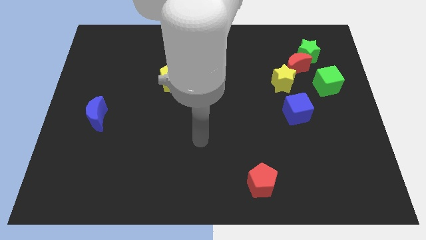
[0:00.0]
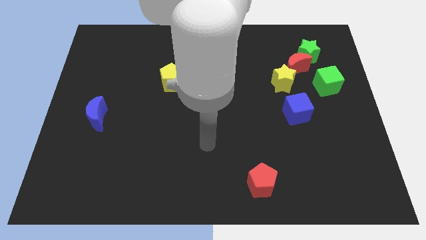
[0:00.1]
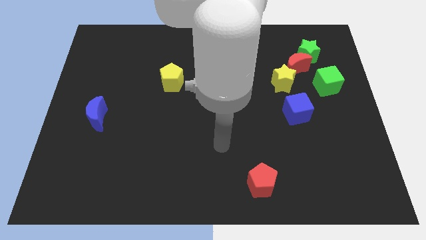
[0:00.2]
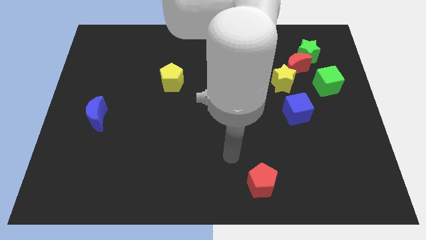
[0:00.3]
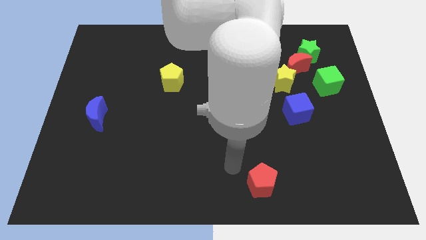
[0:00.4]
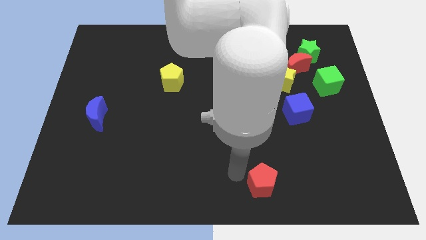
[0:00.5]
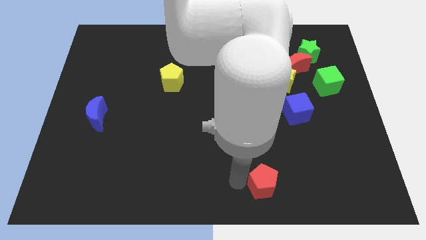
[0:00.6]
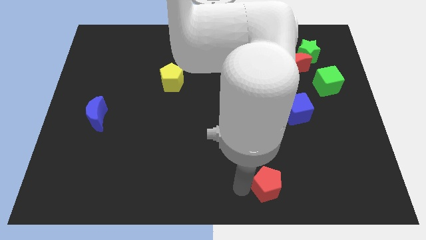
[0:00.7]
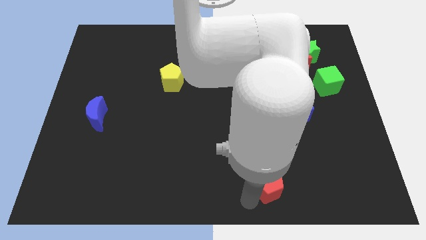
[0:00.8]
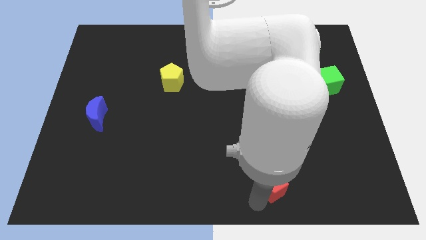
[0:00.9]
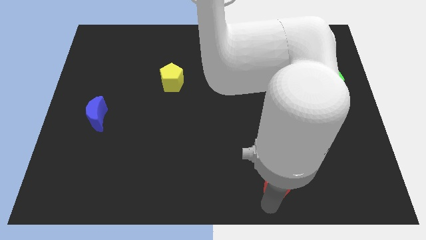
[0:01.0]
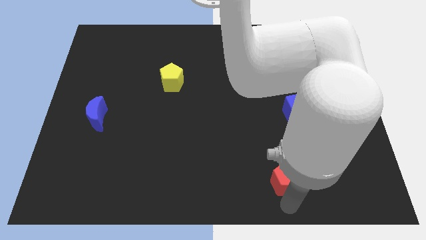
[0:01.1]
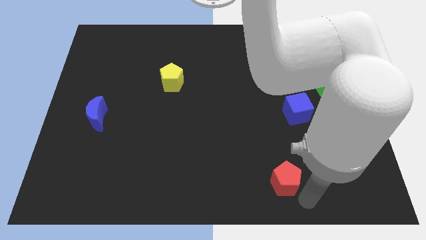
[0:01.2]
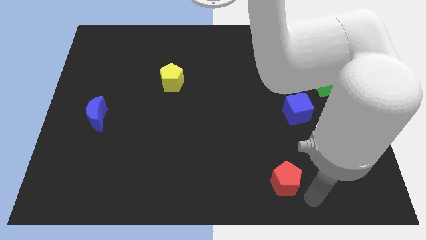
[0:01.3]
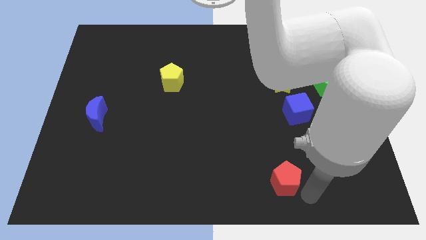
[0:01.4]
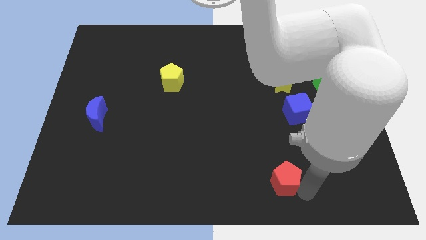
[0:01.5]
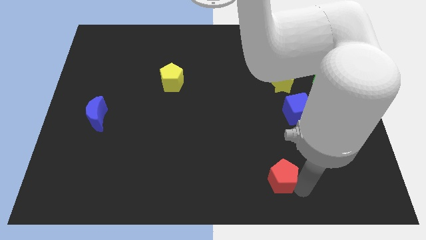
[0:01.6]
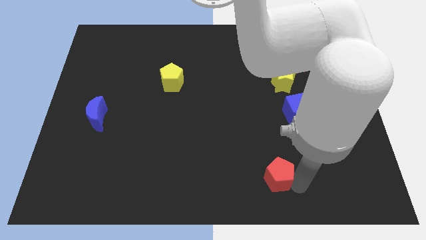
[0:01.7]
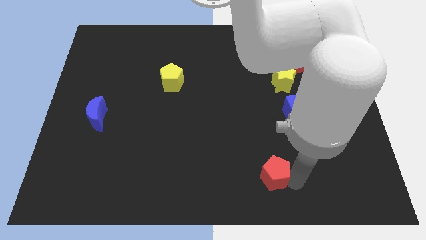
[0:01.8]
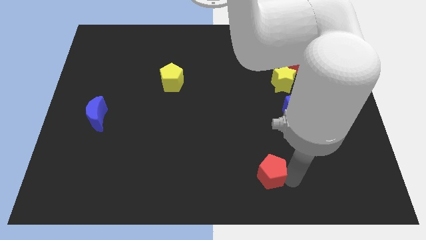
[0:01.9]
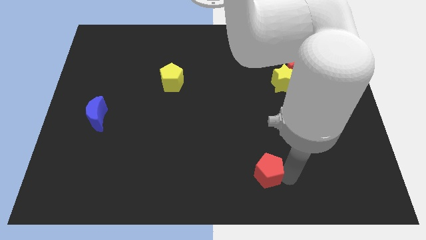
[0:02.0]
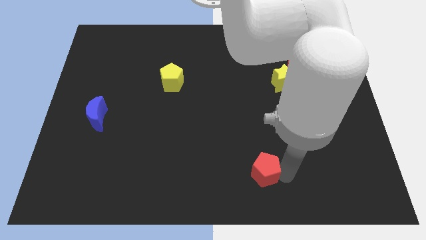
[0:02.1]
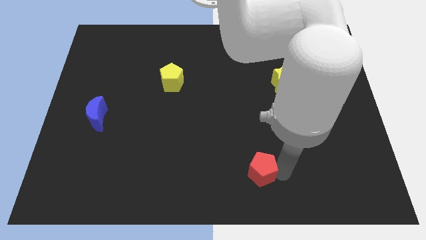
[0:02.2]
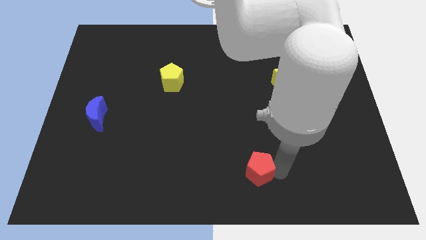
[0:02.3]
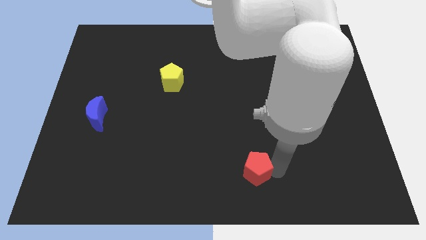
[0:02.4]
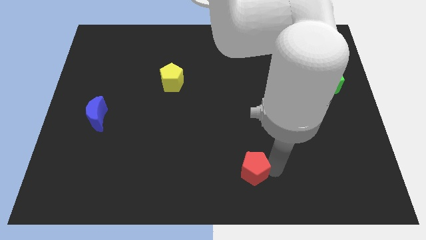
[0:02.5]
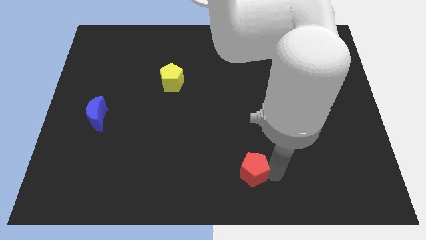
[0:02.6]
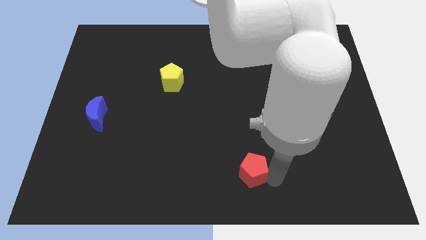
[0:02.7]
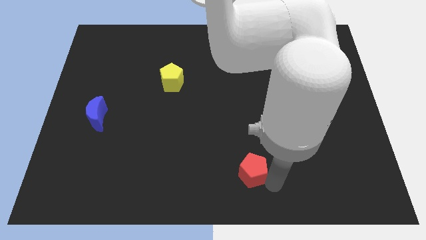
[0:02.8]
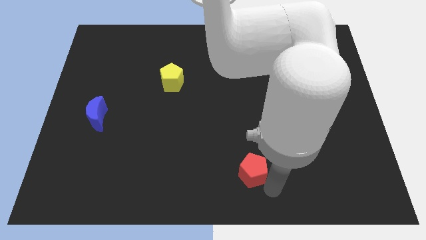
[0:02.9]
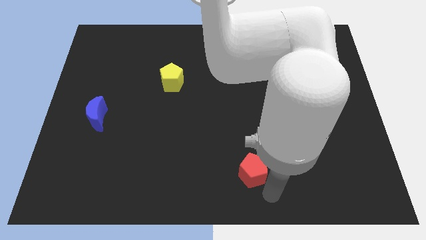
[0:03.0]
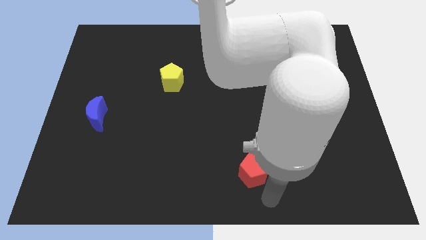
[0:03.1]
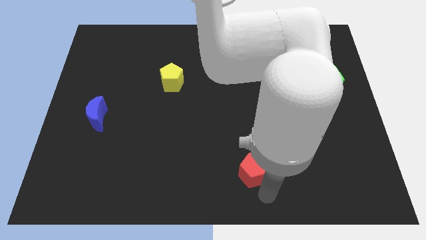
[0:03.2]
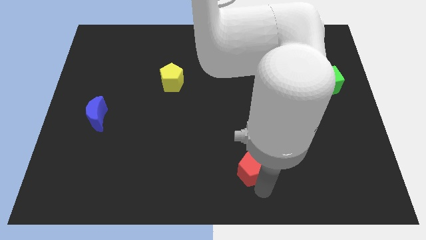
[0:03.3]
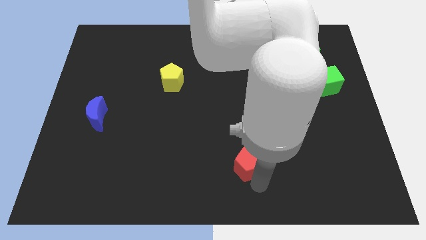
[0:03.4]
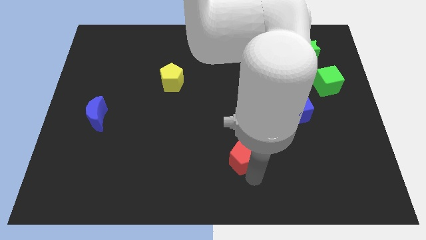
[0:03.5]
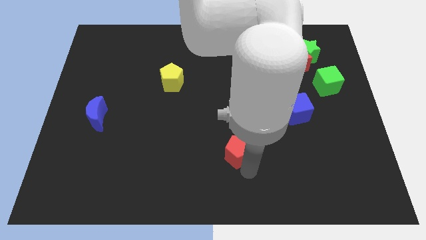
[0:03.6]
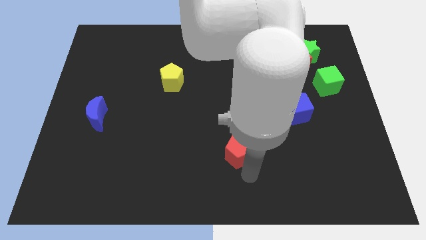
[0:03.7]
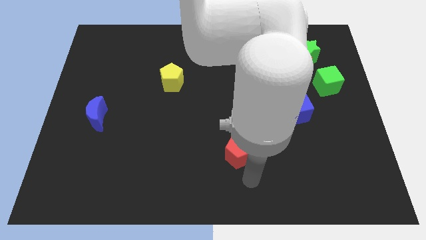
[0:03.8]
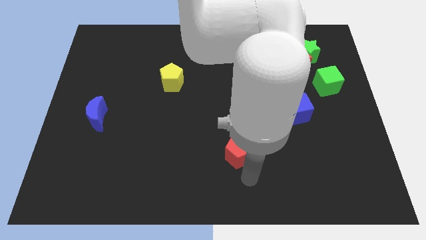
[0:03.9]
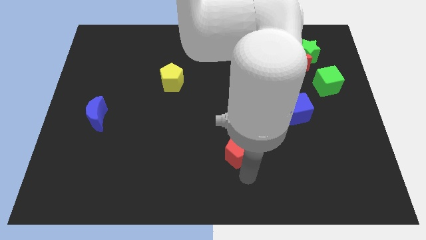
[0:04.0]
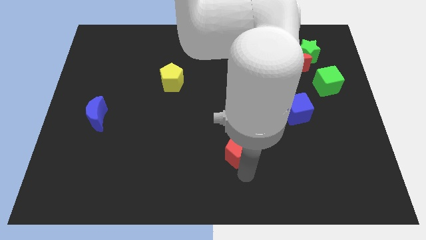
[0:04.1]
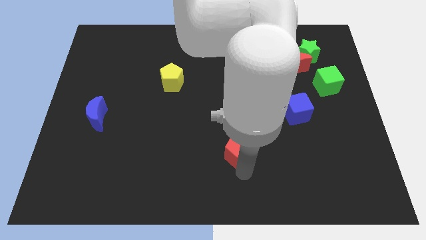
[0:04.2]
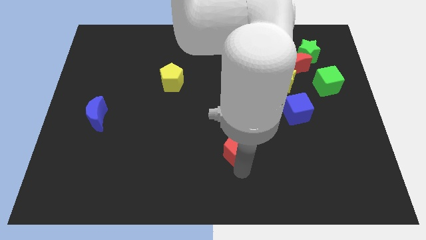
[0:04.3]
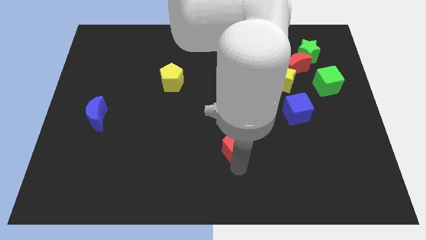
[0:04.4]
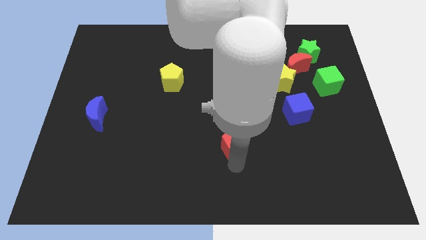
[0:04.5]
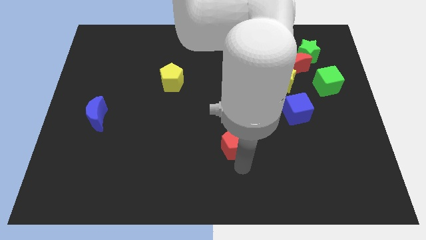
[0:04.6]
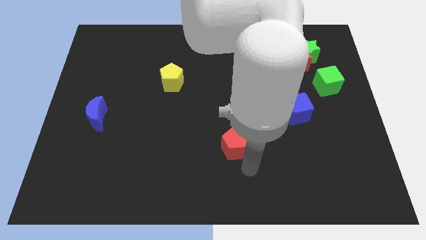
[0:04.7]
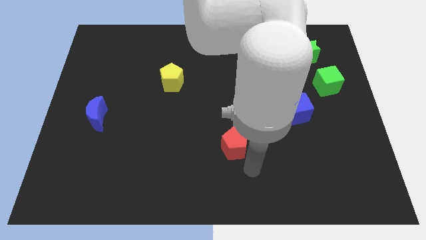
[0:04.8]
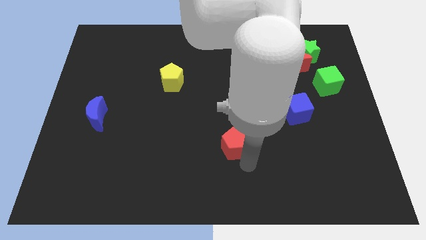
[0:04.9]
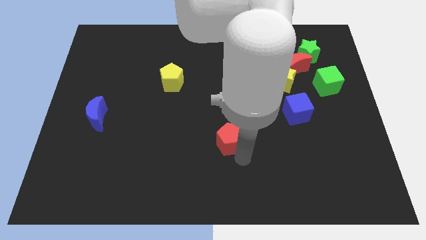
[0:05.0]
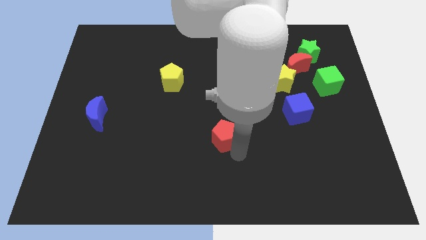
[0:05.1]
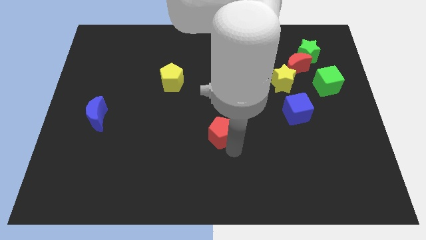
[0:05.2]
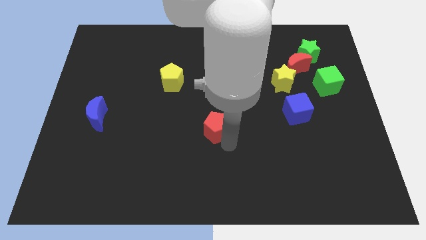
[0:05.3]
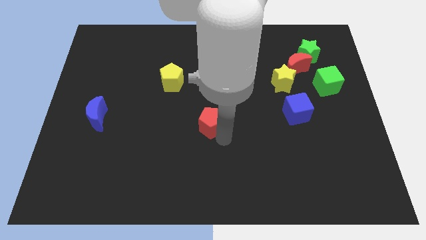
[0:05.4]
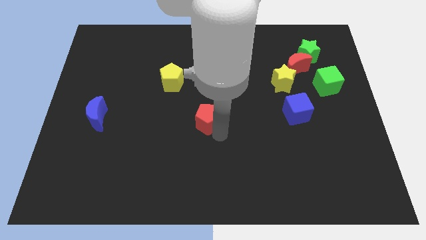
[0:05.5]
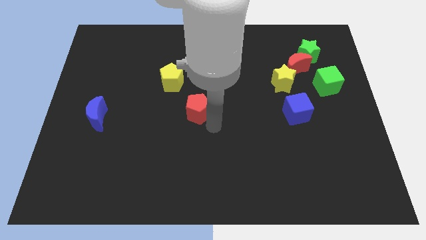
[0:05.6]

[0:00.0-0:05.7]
slide the red pentagon up and left diagonally

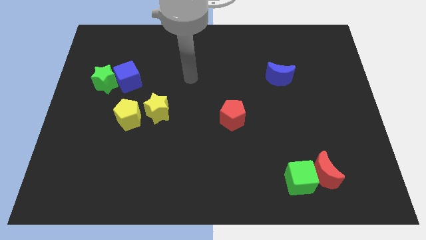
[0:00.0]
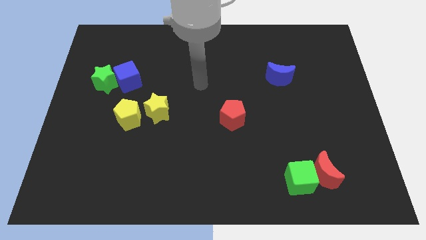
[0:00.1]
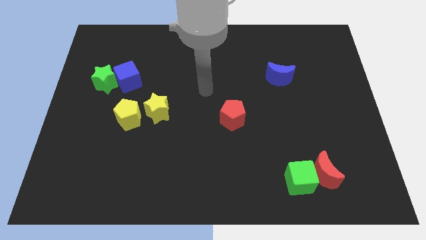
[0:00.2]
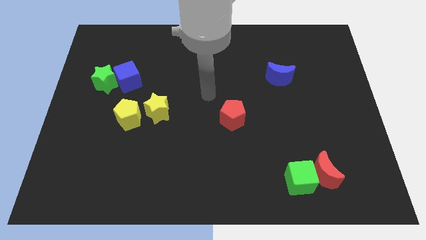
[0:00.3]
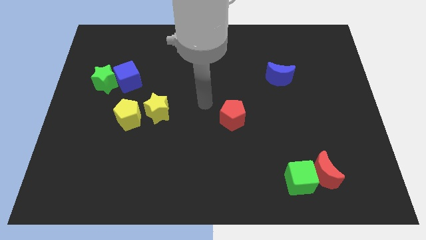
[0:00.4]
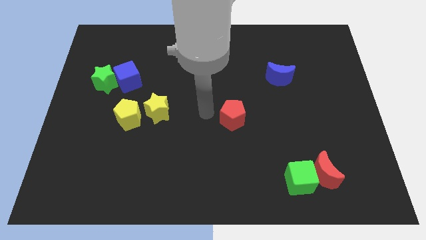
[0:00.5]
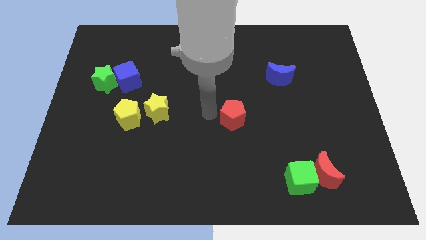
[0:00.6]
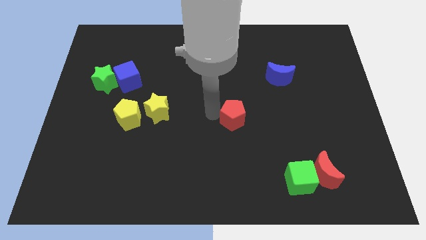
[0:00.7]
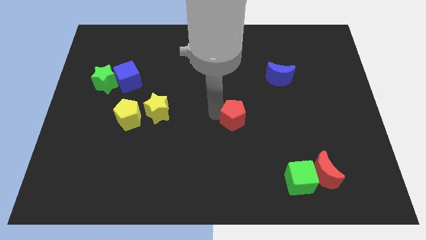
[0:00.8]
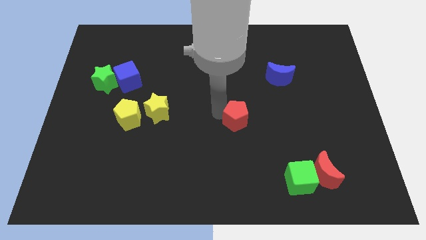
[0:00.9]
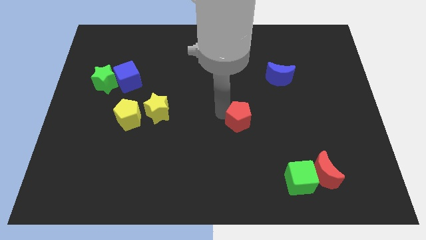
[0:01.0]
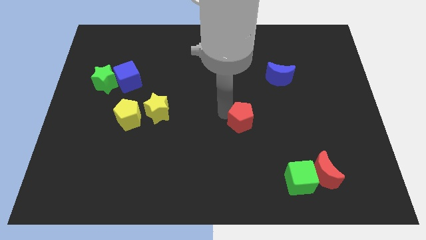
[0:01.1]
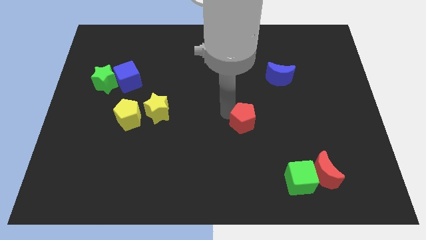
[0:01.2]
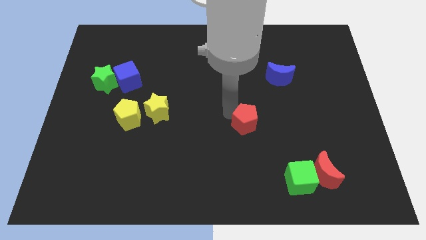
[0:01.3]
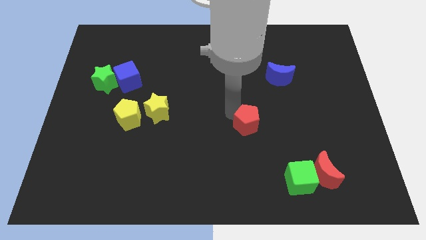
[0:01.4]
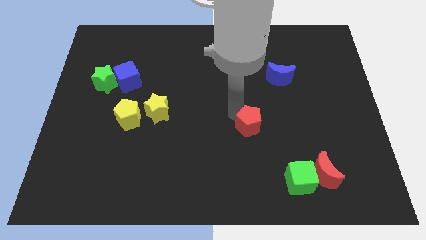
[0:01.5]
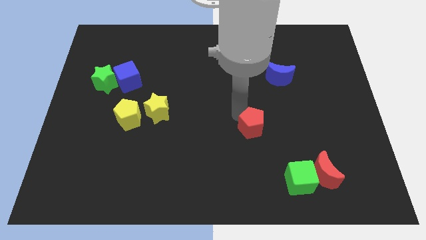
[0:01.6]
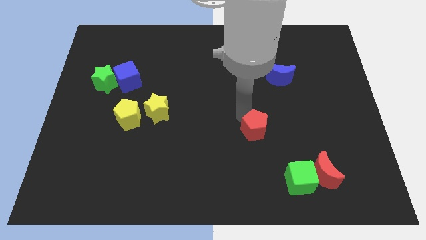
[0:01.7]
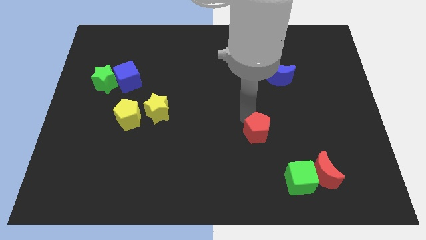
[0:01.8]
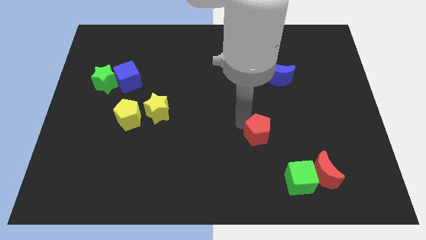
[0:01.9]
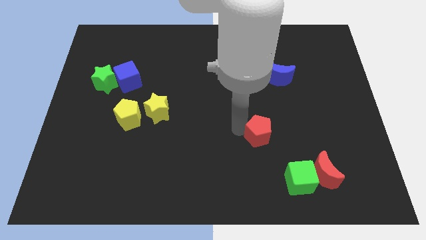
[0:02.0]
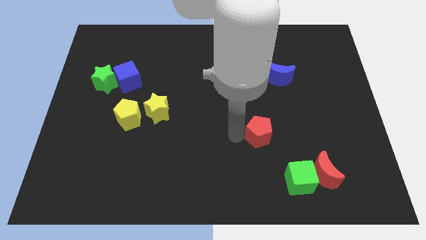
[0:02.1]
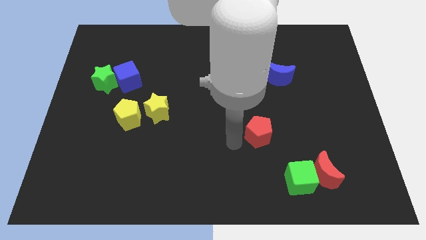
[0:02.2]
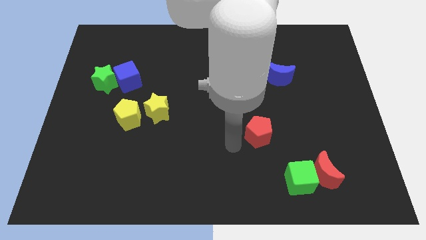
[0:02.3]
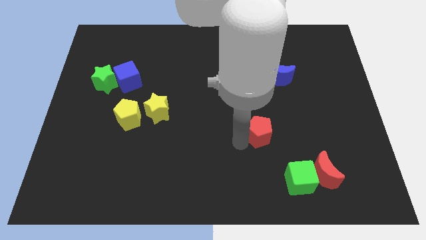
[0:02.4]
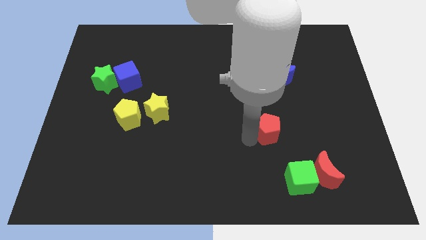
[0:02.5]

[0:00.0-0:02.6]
push the red pentagon to the right a little
